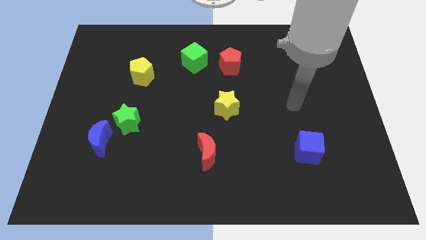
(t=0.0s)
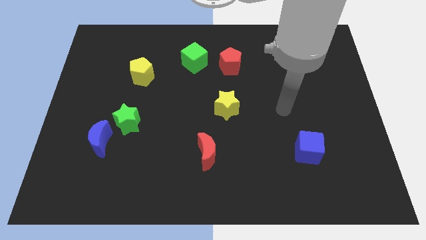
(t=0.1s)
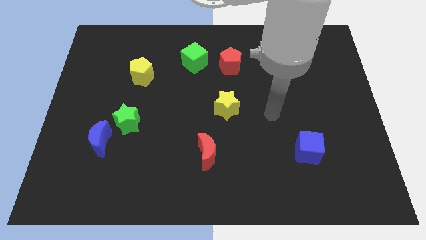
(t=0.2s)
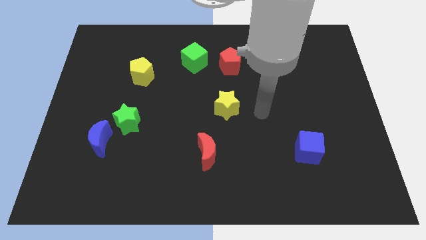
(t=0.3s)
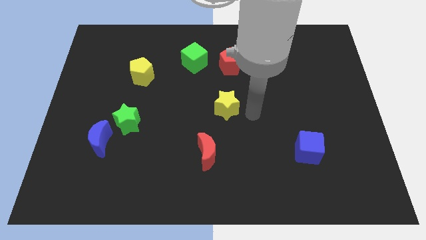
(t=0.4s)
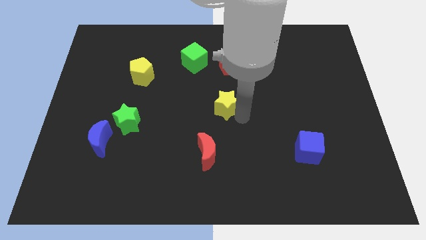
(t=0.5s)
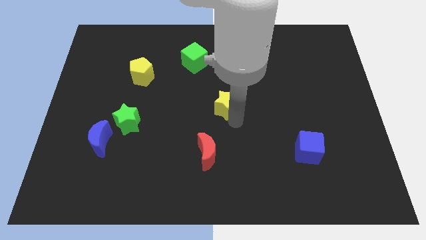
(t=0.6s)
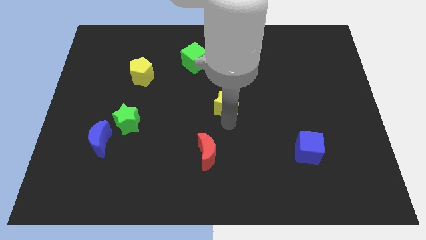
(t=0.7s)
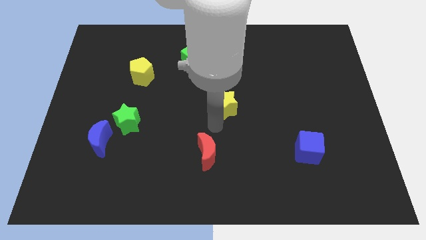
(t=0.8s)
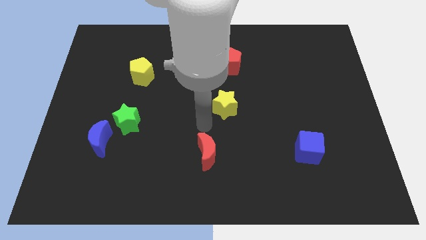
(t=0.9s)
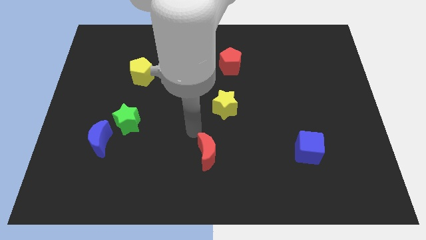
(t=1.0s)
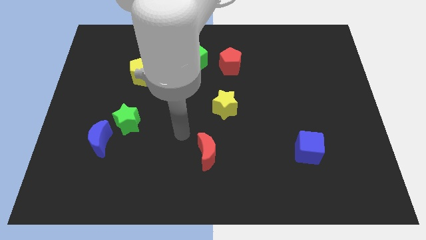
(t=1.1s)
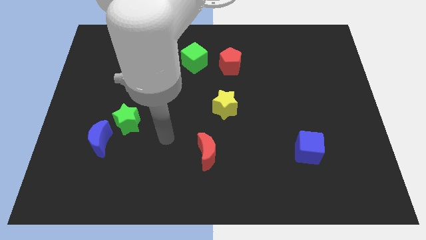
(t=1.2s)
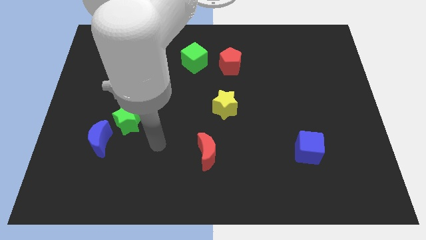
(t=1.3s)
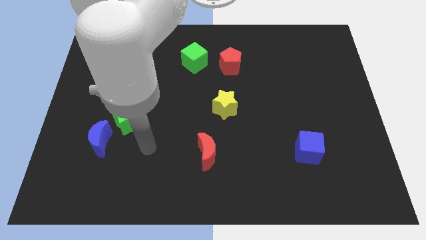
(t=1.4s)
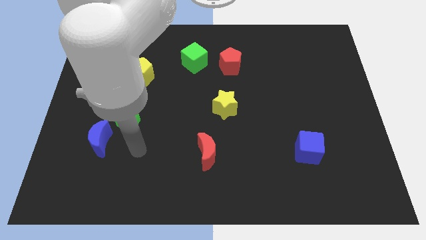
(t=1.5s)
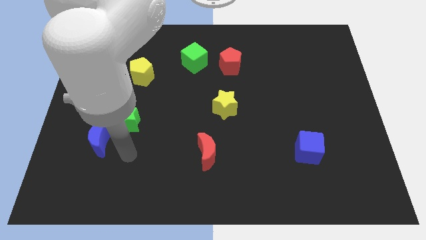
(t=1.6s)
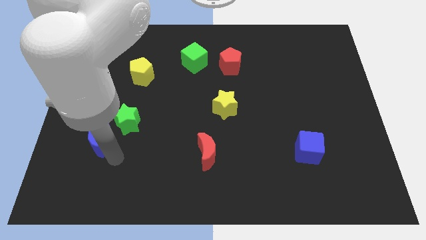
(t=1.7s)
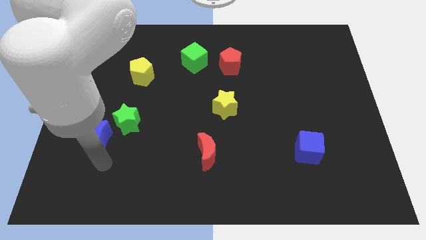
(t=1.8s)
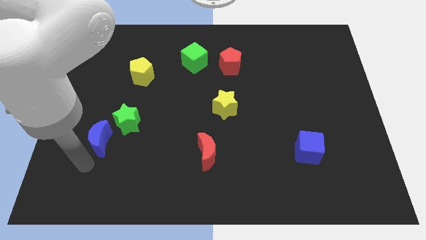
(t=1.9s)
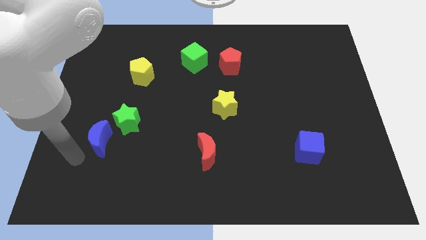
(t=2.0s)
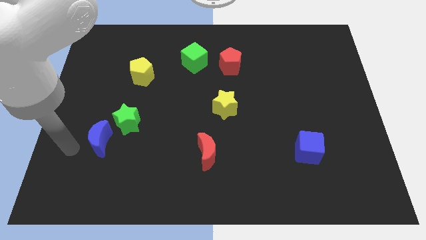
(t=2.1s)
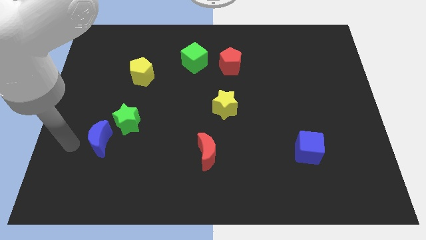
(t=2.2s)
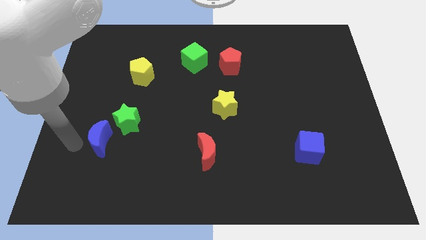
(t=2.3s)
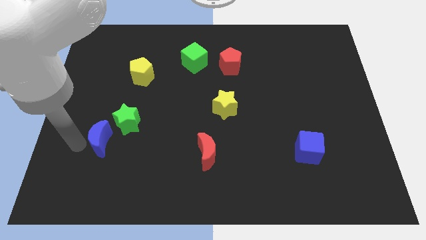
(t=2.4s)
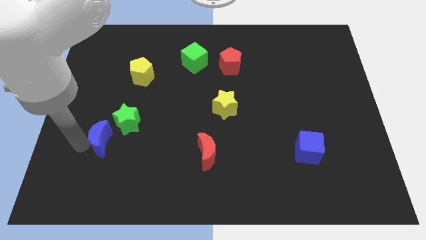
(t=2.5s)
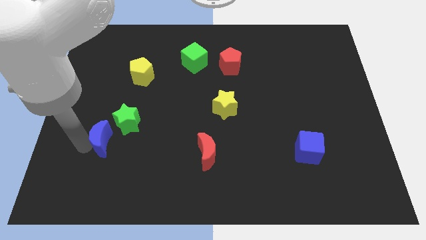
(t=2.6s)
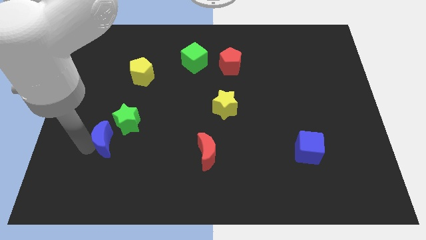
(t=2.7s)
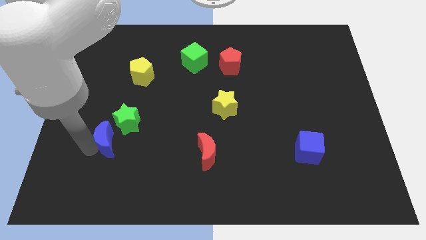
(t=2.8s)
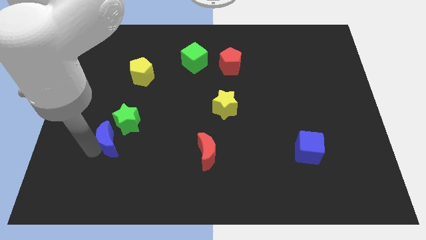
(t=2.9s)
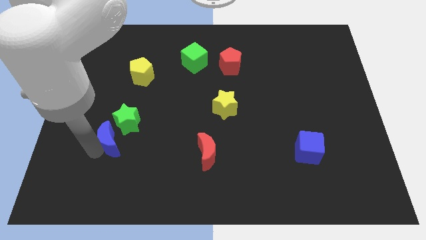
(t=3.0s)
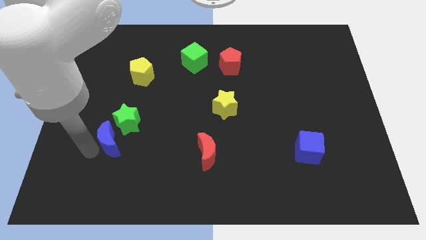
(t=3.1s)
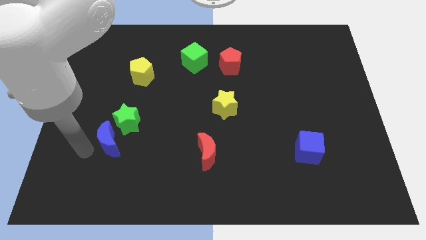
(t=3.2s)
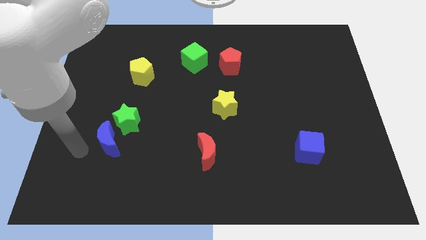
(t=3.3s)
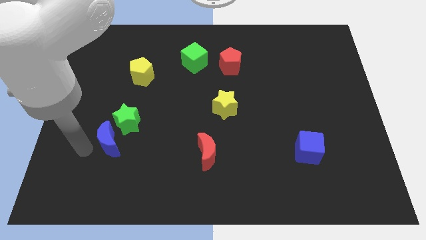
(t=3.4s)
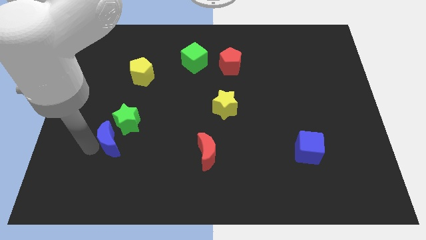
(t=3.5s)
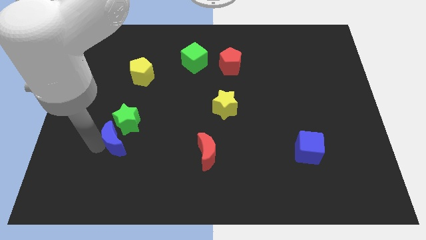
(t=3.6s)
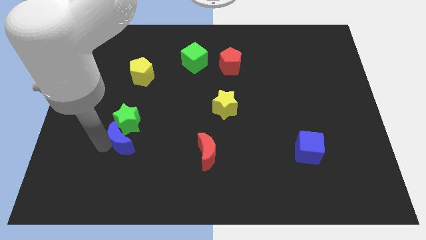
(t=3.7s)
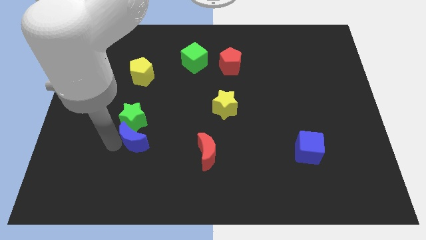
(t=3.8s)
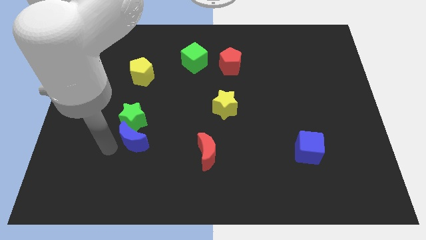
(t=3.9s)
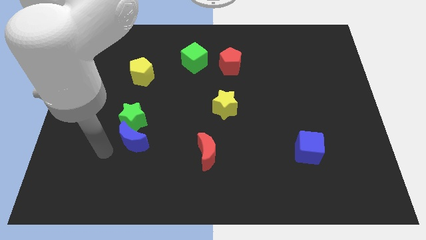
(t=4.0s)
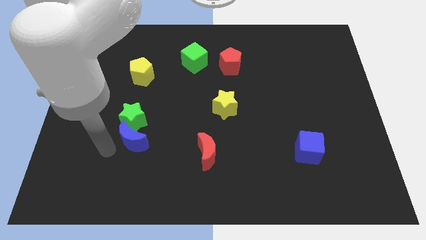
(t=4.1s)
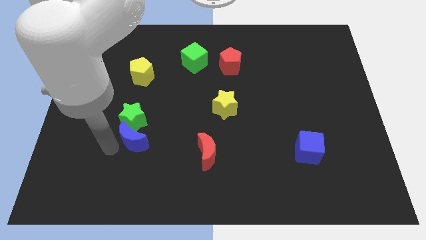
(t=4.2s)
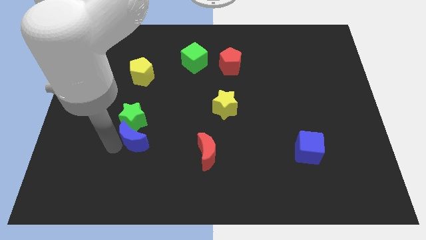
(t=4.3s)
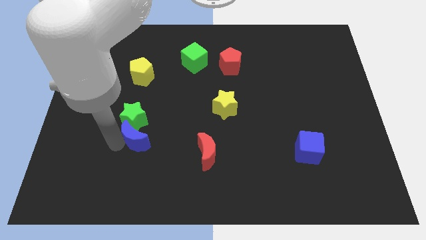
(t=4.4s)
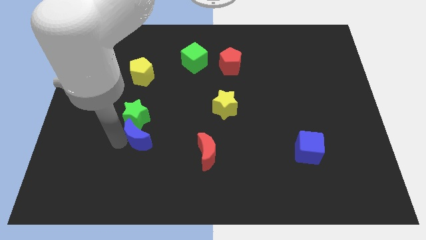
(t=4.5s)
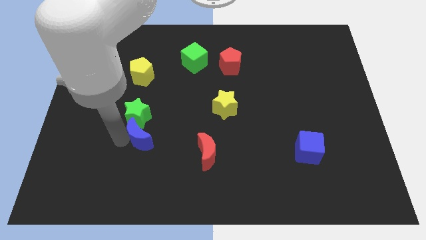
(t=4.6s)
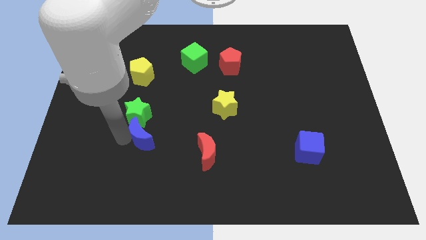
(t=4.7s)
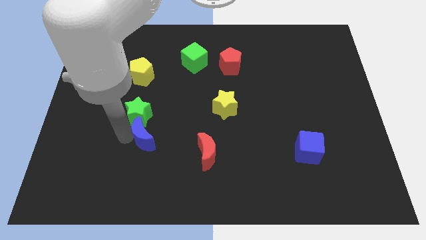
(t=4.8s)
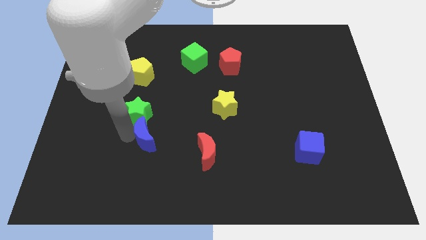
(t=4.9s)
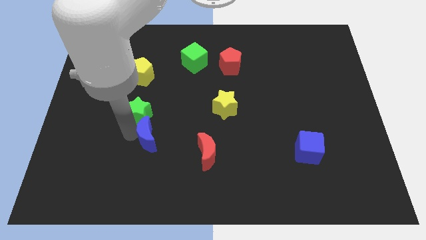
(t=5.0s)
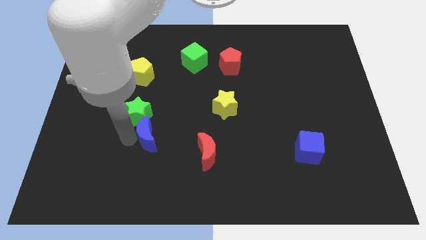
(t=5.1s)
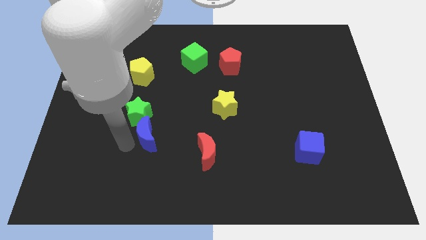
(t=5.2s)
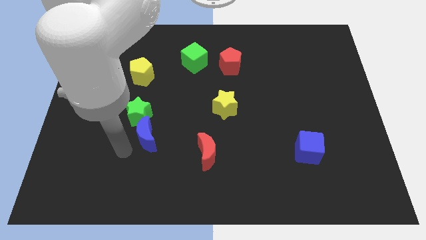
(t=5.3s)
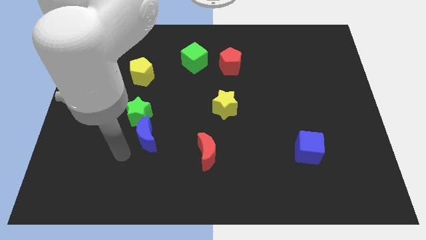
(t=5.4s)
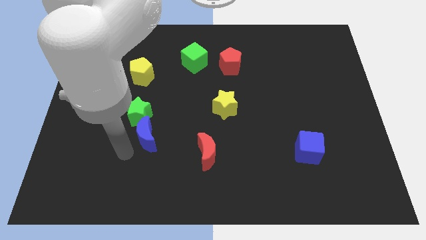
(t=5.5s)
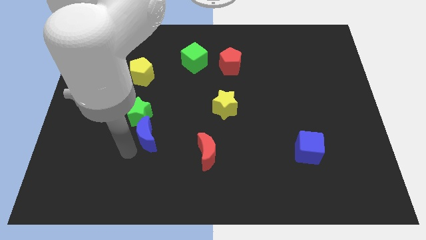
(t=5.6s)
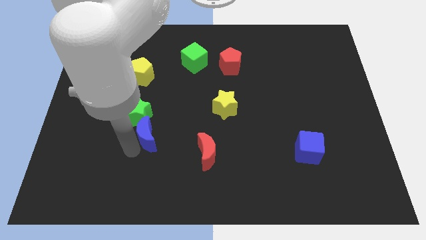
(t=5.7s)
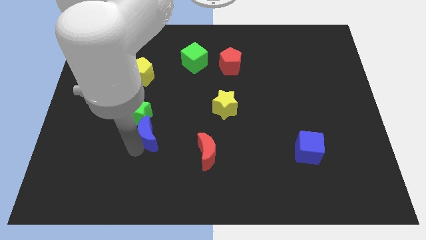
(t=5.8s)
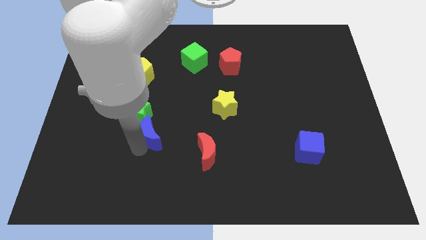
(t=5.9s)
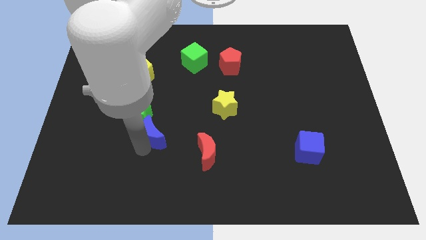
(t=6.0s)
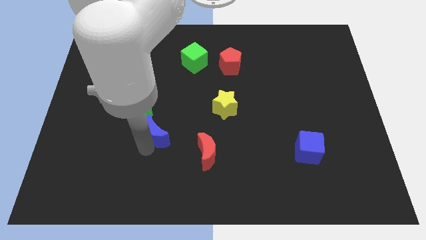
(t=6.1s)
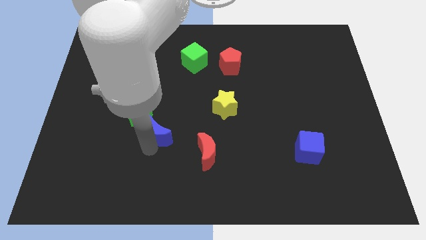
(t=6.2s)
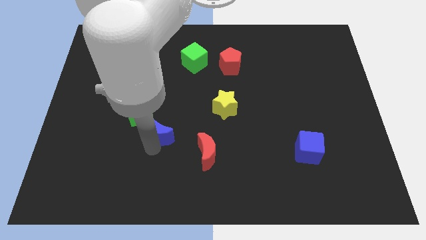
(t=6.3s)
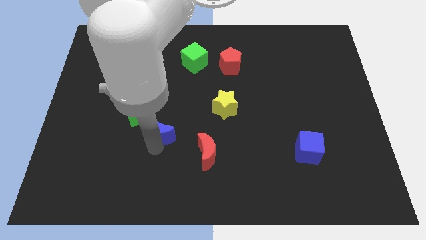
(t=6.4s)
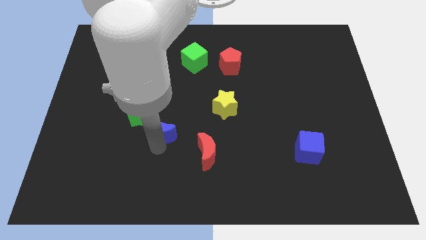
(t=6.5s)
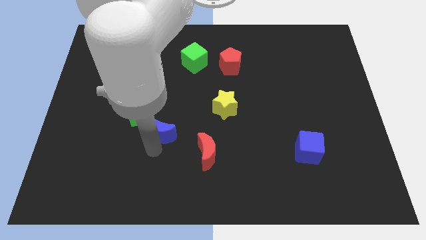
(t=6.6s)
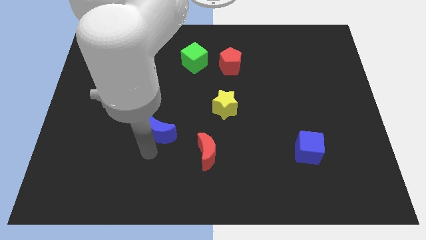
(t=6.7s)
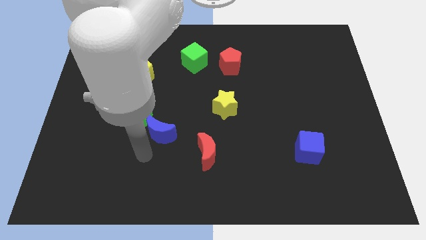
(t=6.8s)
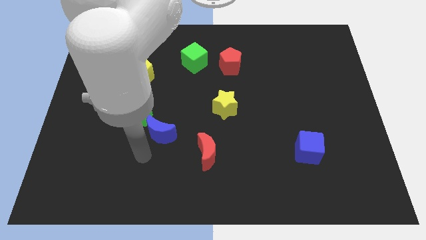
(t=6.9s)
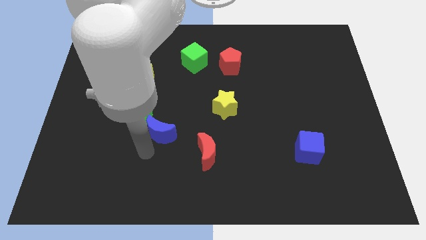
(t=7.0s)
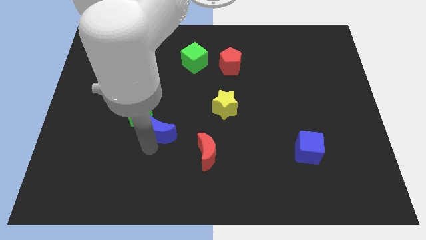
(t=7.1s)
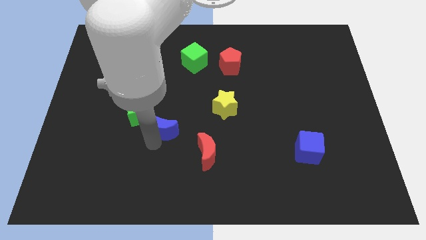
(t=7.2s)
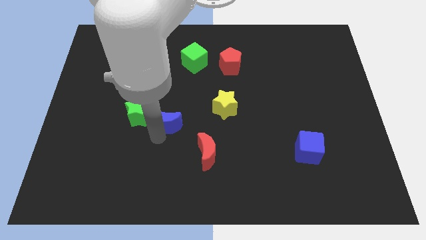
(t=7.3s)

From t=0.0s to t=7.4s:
push the blue moon left of the yellow star

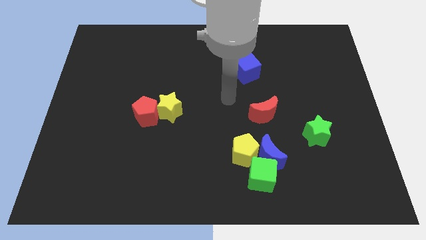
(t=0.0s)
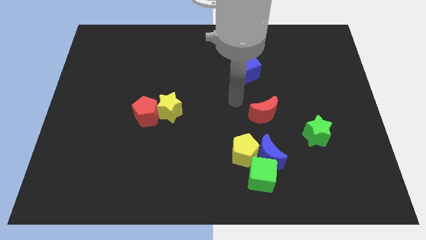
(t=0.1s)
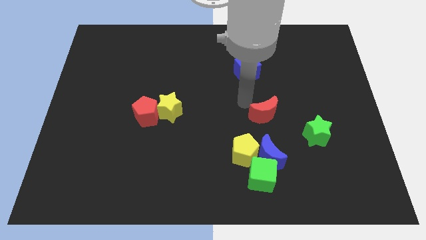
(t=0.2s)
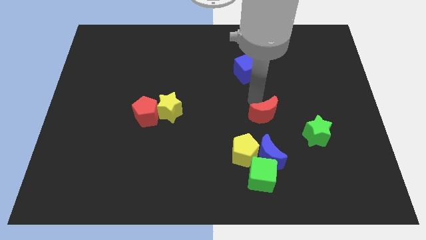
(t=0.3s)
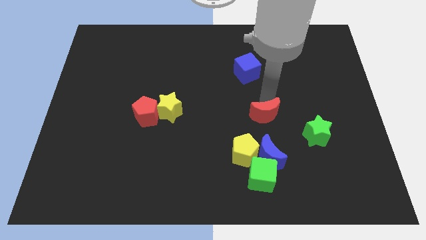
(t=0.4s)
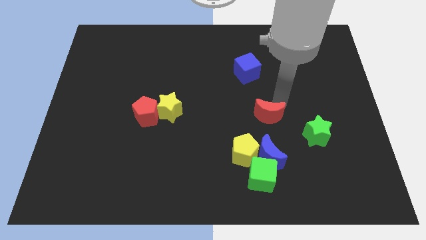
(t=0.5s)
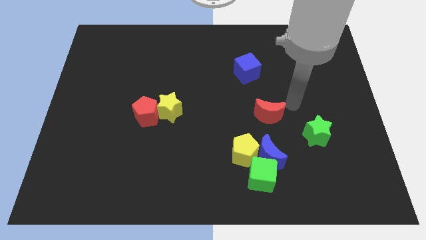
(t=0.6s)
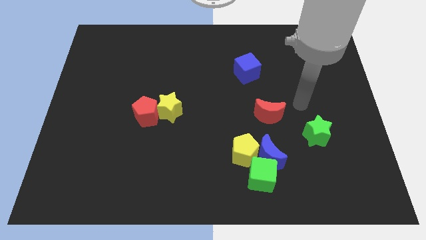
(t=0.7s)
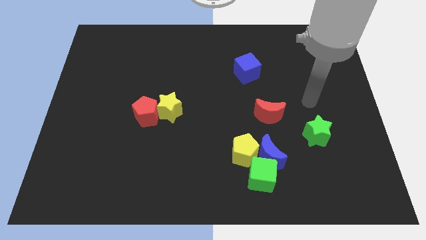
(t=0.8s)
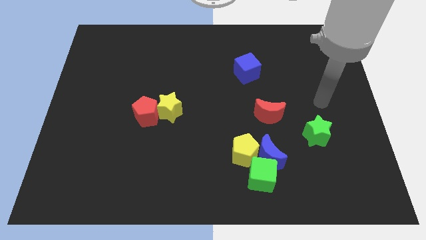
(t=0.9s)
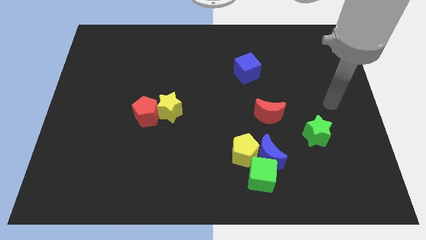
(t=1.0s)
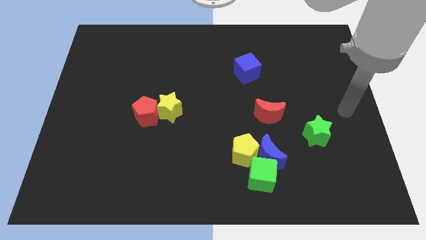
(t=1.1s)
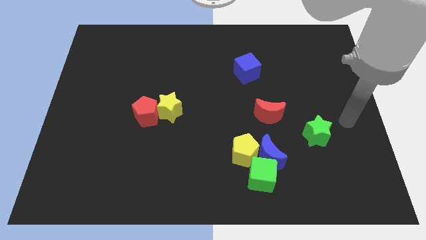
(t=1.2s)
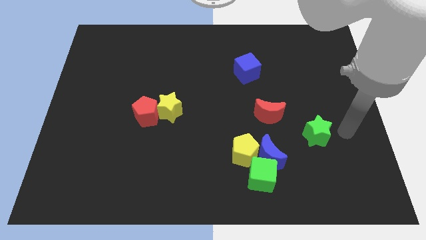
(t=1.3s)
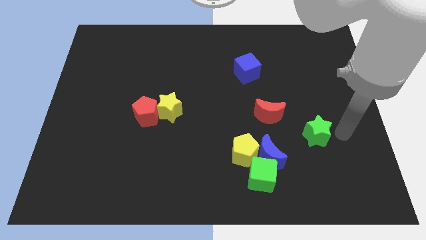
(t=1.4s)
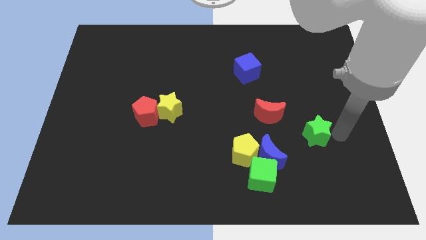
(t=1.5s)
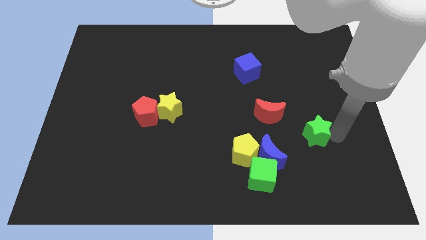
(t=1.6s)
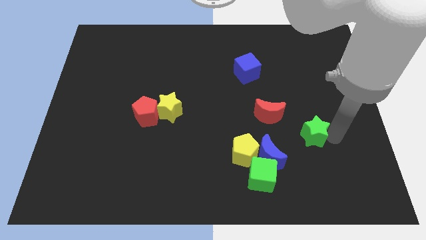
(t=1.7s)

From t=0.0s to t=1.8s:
put the green star diagonally up and to the right of the blue moon
